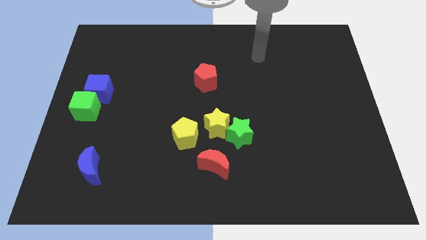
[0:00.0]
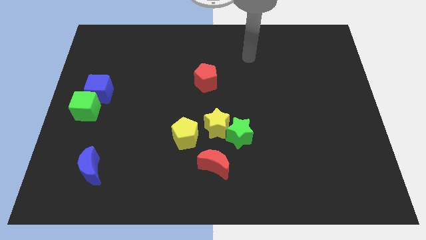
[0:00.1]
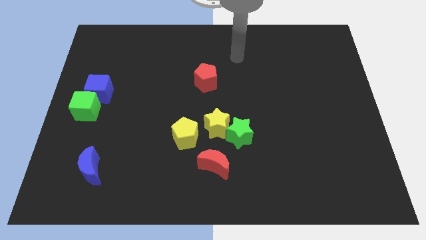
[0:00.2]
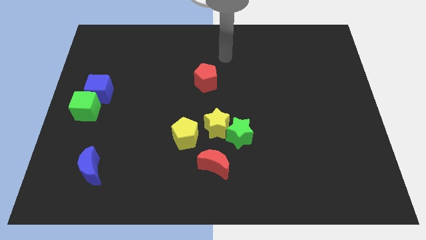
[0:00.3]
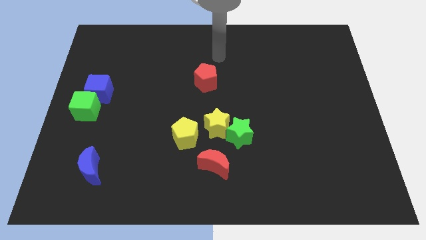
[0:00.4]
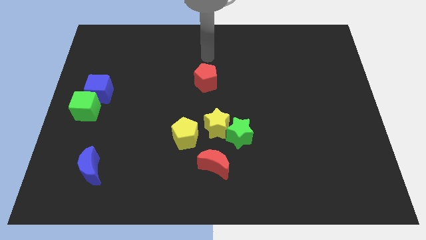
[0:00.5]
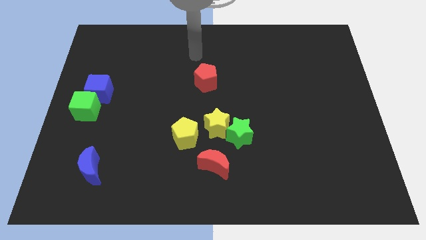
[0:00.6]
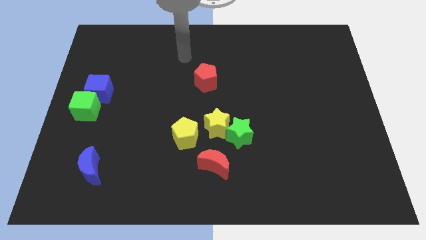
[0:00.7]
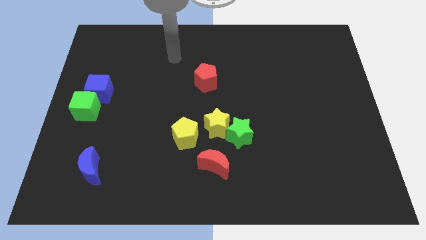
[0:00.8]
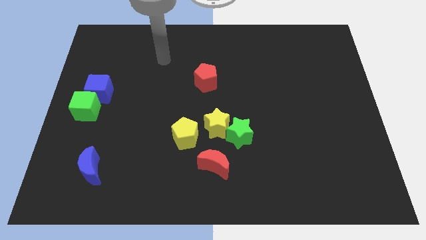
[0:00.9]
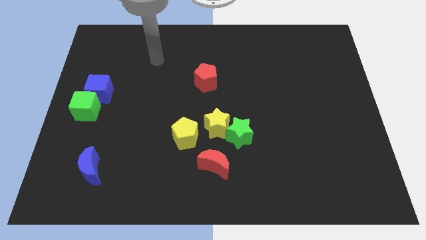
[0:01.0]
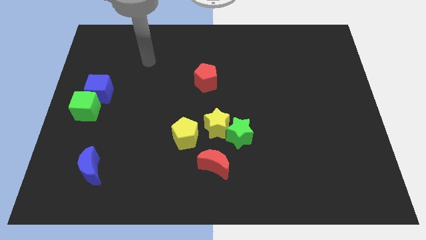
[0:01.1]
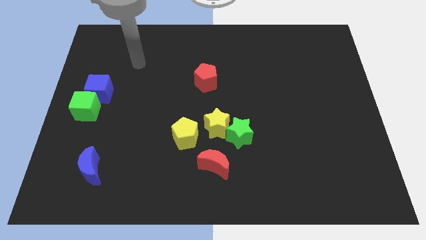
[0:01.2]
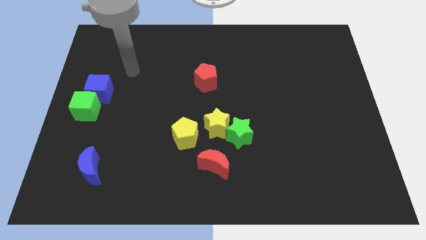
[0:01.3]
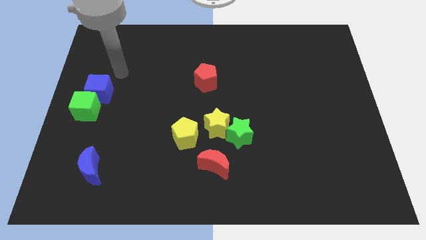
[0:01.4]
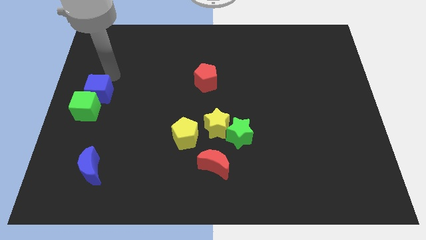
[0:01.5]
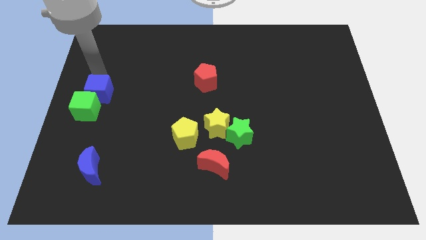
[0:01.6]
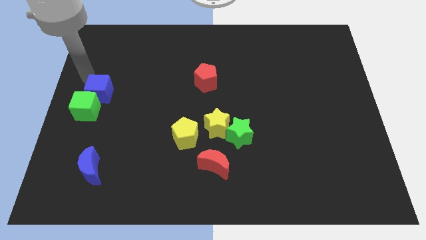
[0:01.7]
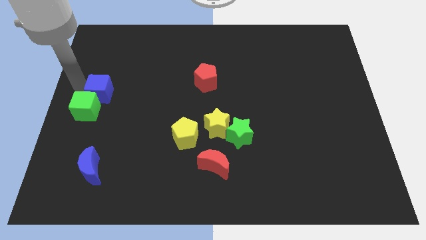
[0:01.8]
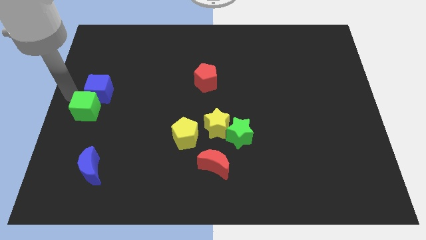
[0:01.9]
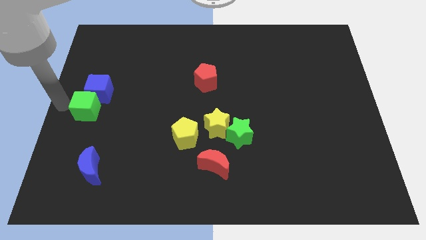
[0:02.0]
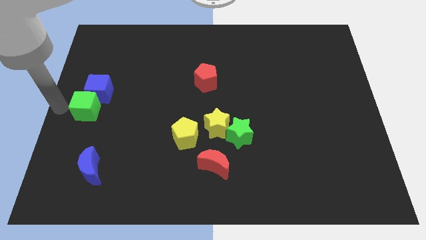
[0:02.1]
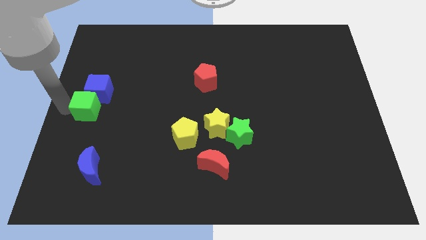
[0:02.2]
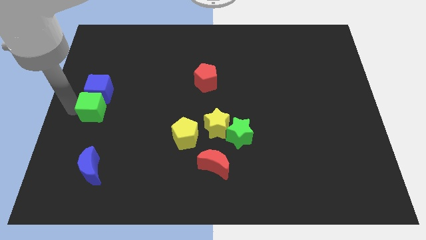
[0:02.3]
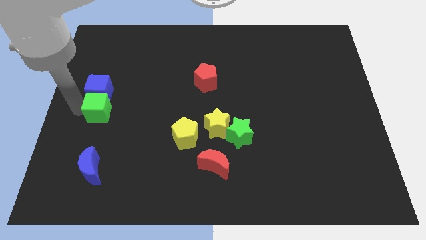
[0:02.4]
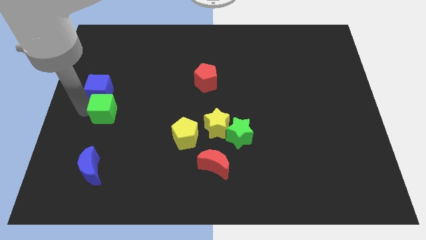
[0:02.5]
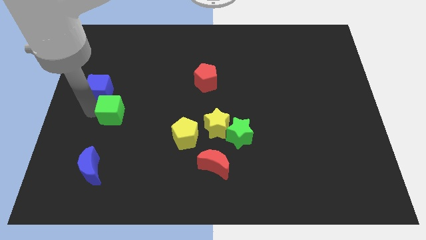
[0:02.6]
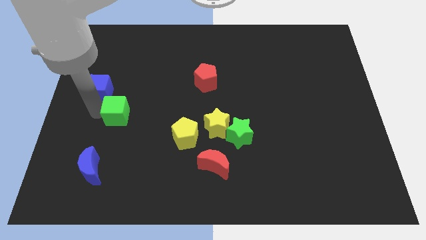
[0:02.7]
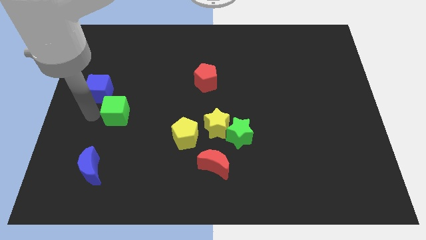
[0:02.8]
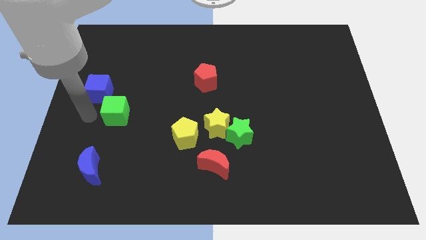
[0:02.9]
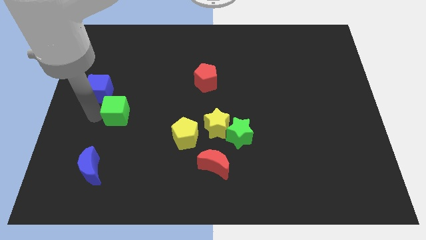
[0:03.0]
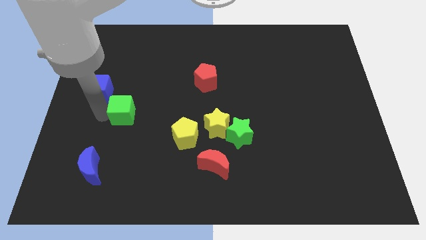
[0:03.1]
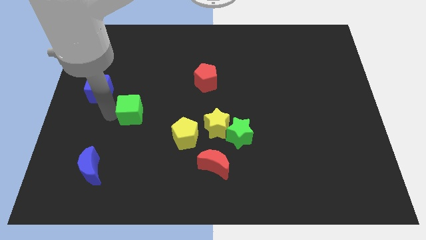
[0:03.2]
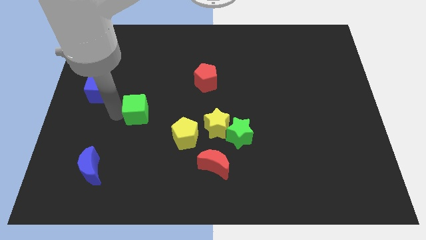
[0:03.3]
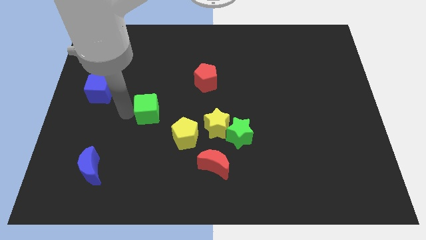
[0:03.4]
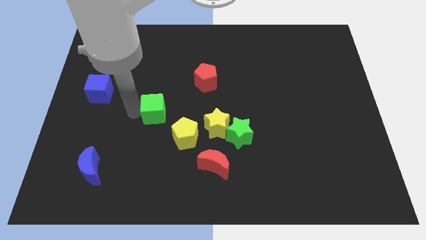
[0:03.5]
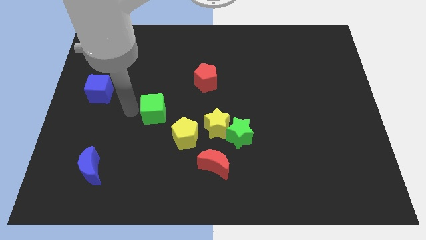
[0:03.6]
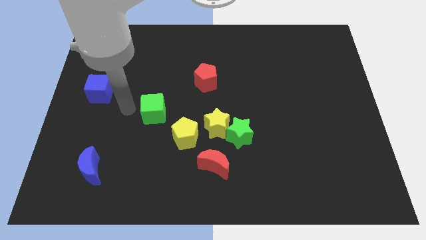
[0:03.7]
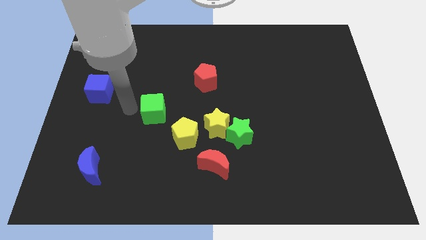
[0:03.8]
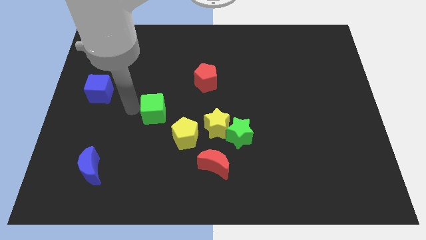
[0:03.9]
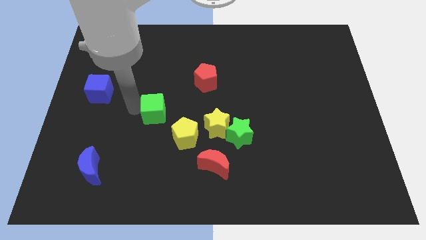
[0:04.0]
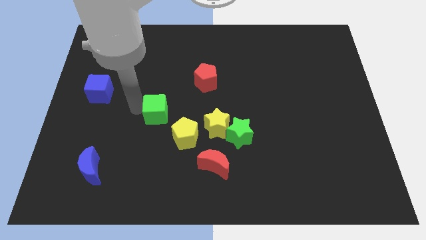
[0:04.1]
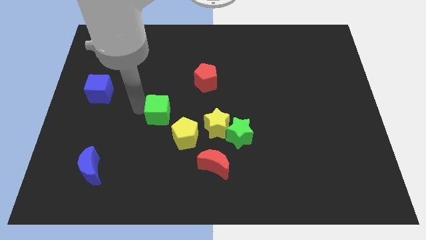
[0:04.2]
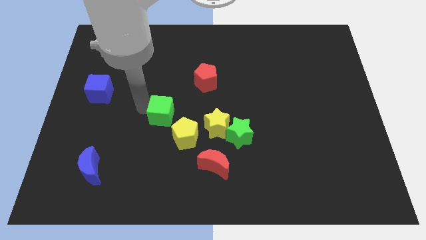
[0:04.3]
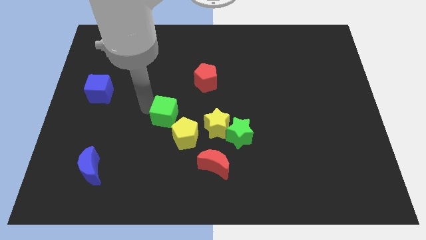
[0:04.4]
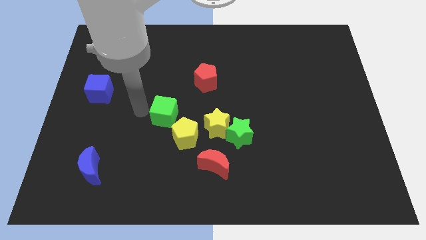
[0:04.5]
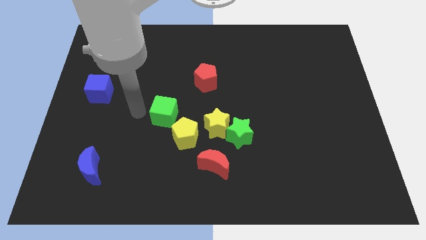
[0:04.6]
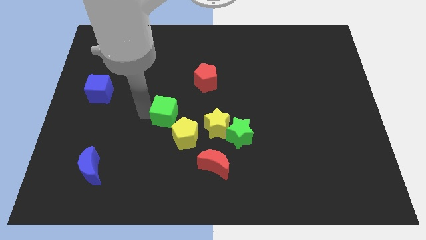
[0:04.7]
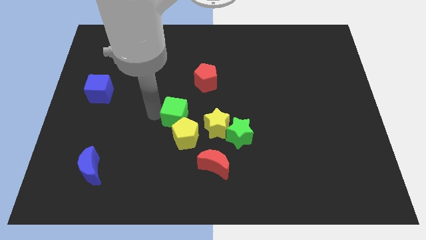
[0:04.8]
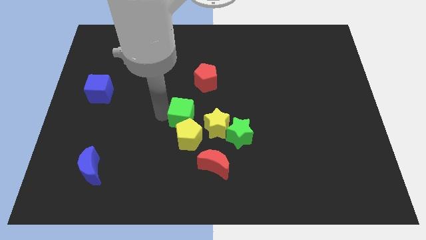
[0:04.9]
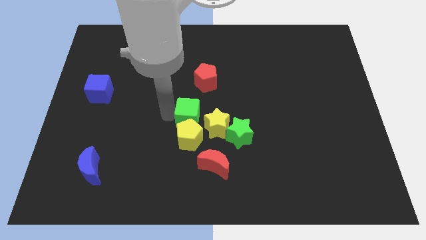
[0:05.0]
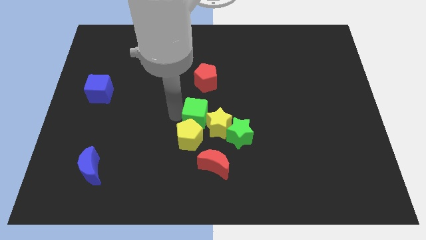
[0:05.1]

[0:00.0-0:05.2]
slide the green cube next to the yellow star

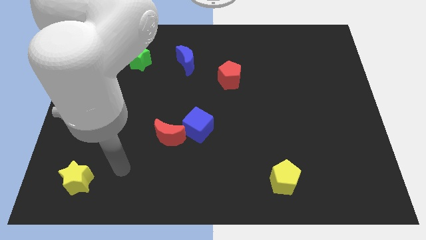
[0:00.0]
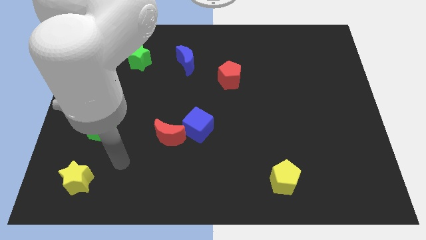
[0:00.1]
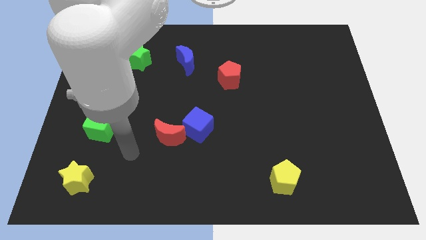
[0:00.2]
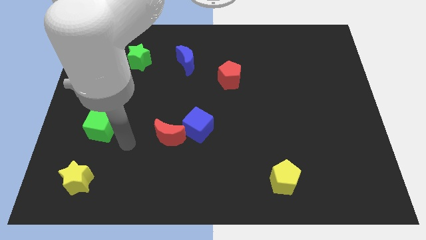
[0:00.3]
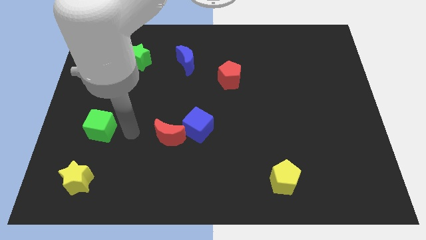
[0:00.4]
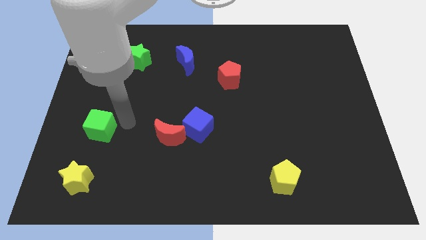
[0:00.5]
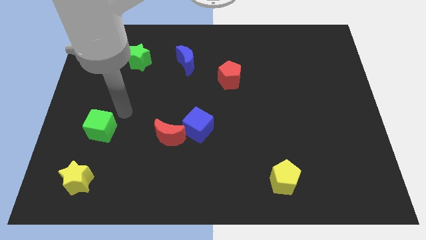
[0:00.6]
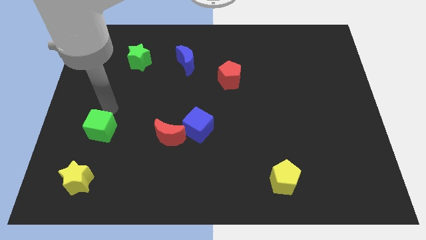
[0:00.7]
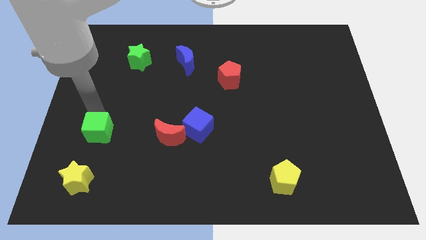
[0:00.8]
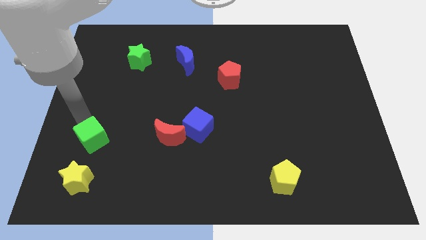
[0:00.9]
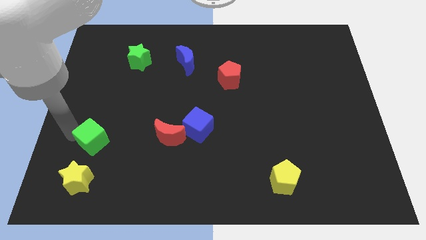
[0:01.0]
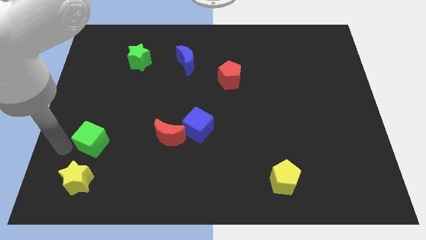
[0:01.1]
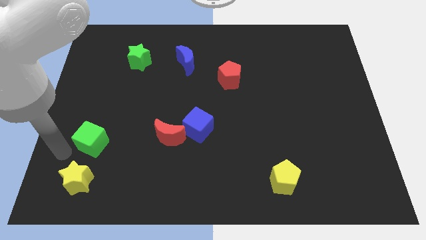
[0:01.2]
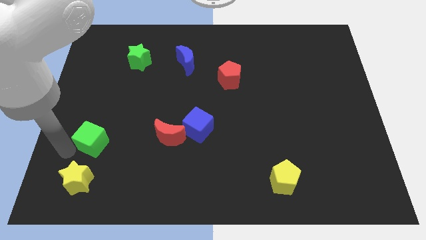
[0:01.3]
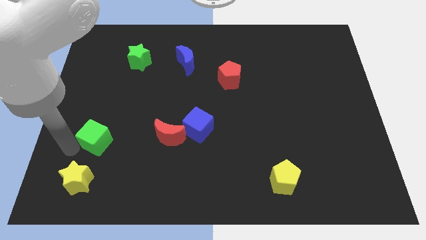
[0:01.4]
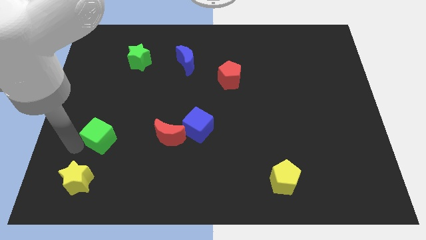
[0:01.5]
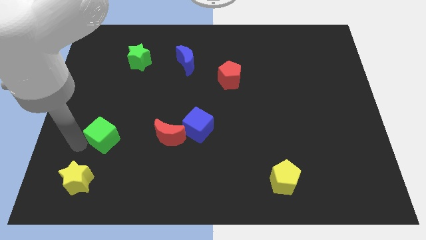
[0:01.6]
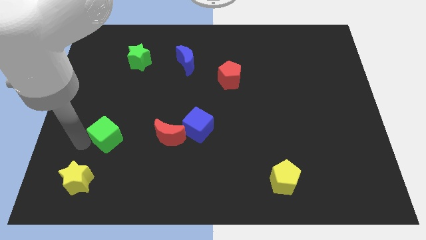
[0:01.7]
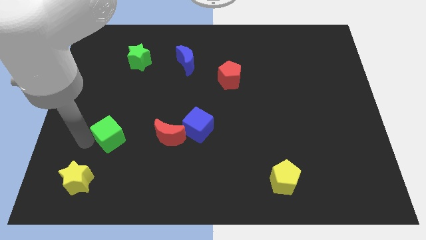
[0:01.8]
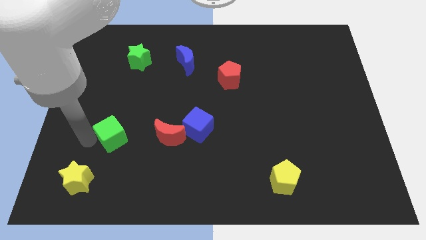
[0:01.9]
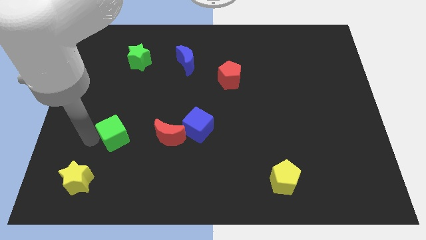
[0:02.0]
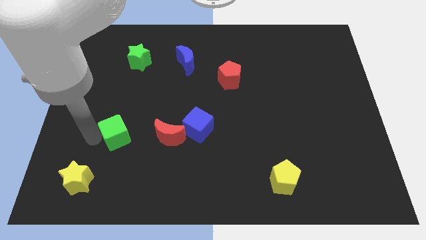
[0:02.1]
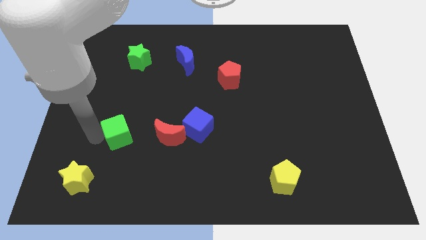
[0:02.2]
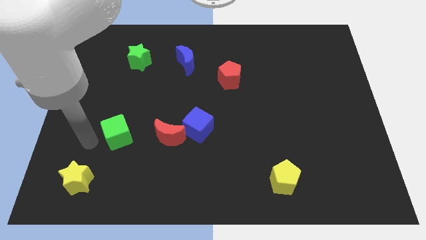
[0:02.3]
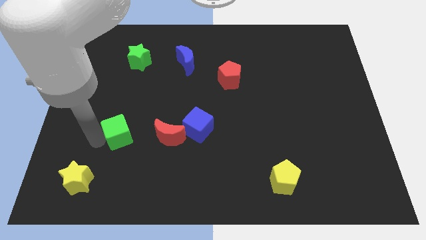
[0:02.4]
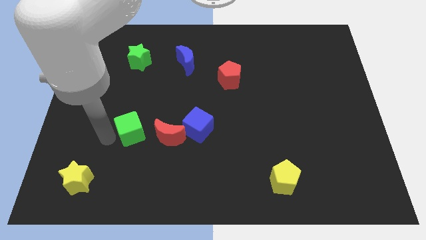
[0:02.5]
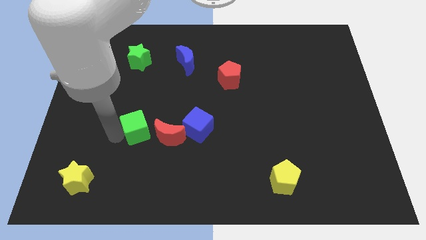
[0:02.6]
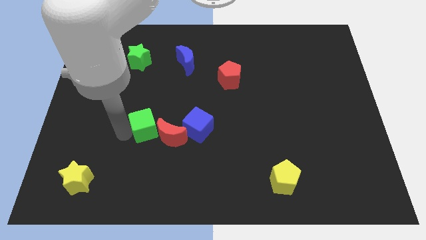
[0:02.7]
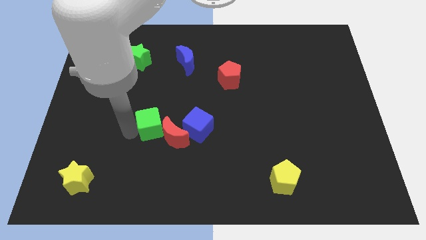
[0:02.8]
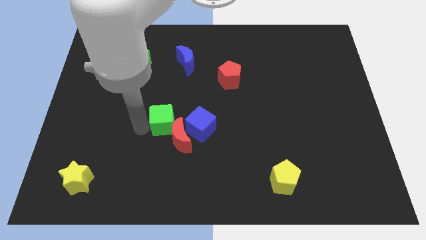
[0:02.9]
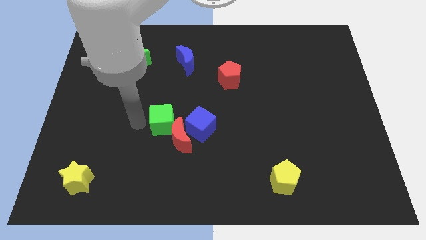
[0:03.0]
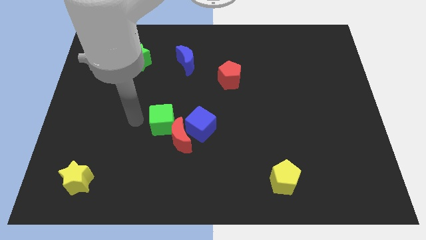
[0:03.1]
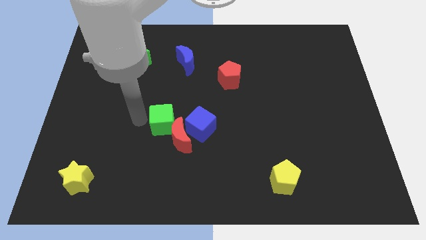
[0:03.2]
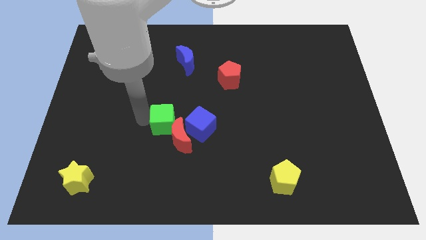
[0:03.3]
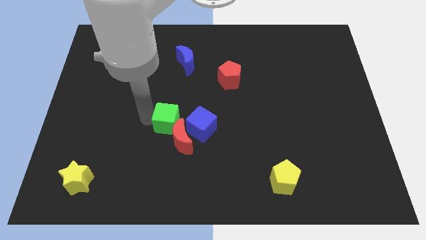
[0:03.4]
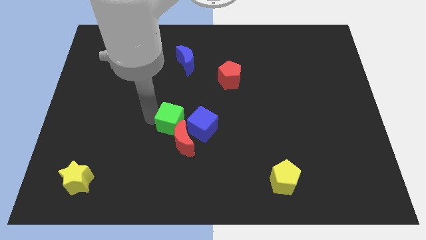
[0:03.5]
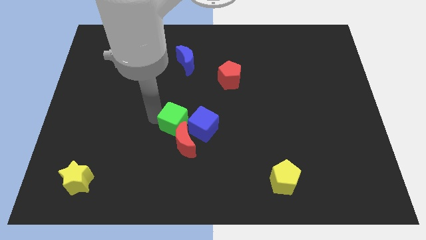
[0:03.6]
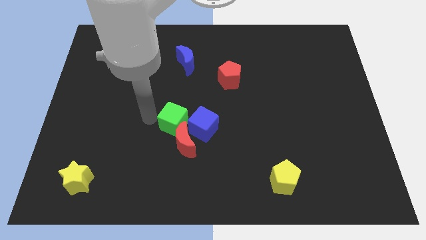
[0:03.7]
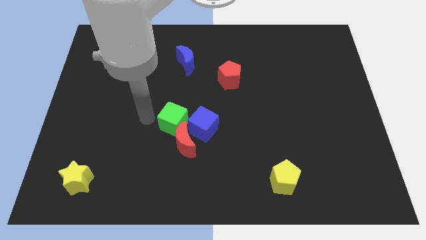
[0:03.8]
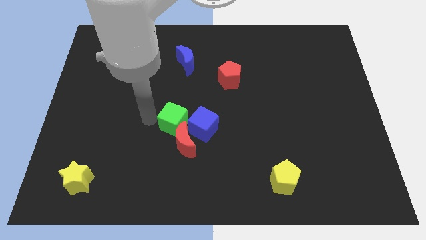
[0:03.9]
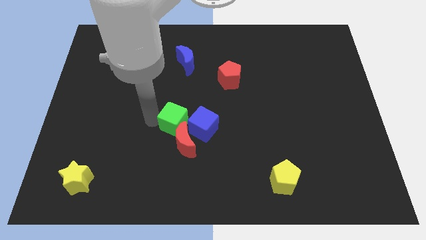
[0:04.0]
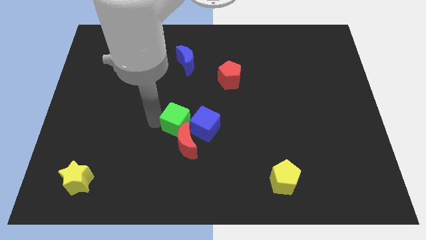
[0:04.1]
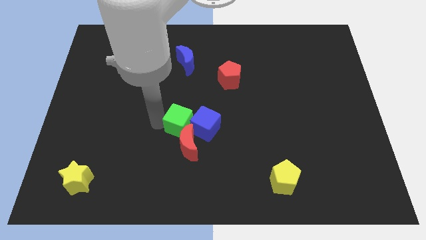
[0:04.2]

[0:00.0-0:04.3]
slide the green cube to the blue cube
